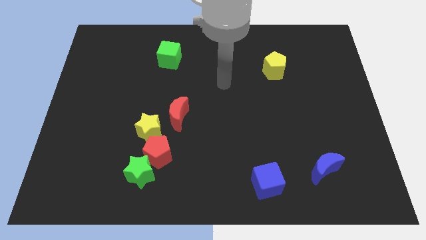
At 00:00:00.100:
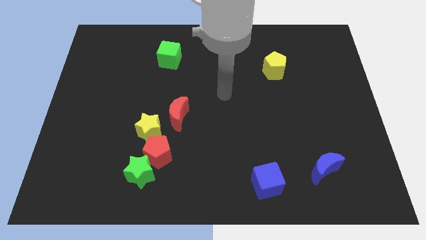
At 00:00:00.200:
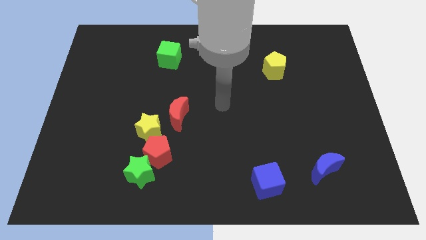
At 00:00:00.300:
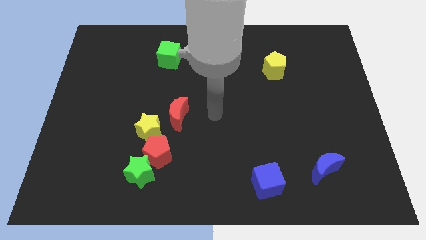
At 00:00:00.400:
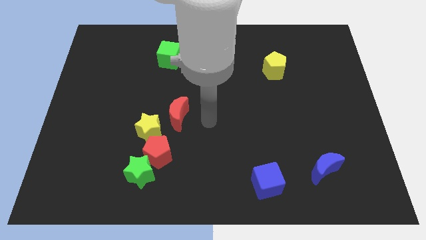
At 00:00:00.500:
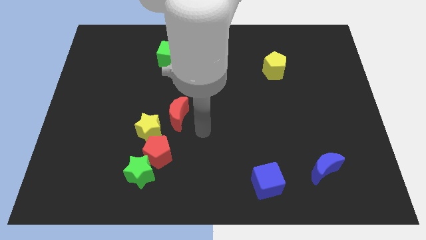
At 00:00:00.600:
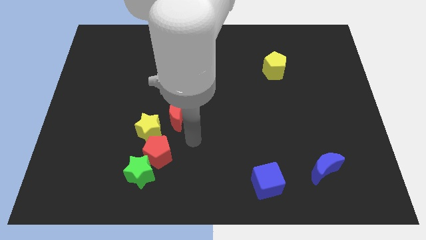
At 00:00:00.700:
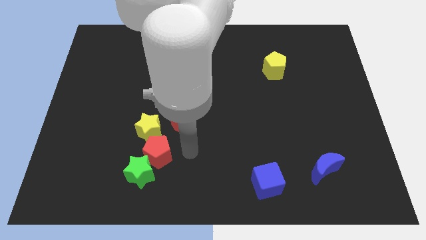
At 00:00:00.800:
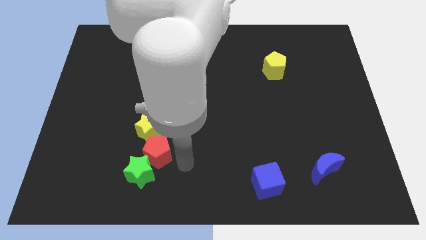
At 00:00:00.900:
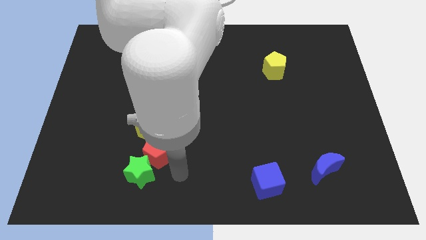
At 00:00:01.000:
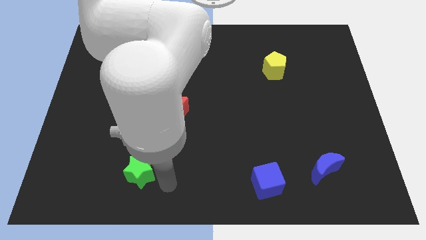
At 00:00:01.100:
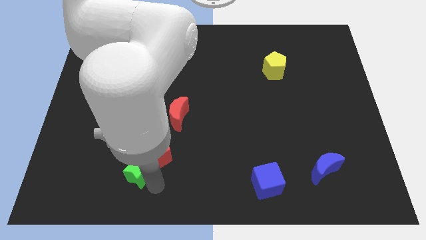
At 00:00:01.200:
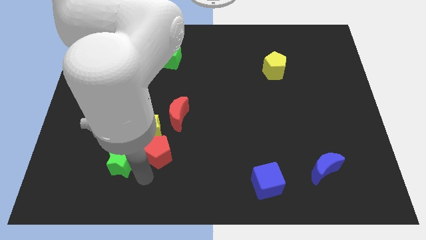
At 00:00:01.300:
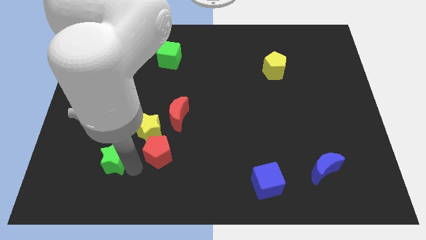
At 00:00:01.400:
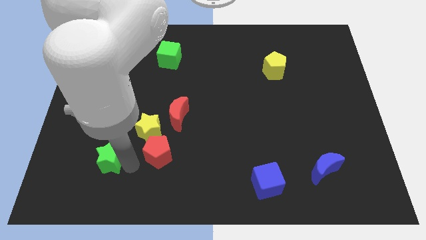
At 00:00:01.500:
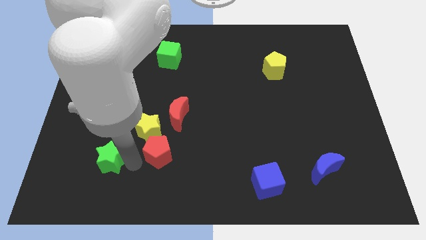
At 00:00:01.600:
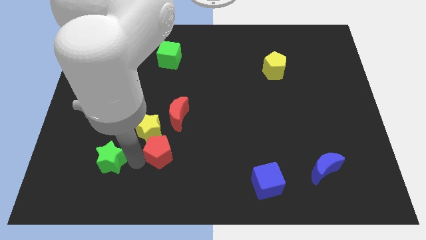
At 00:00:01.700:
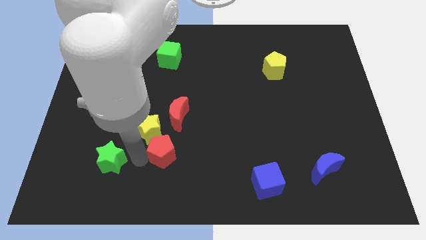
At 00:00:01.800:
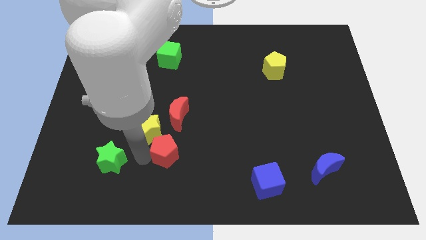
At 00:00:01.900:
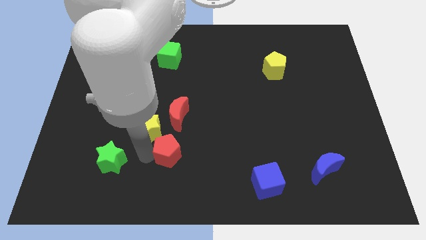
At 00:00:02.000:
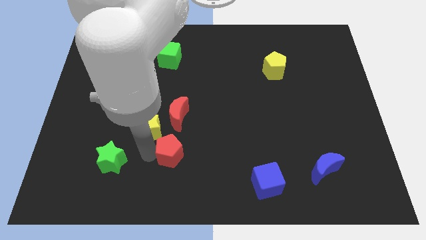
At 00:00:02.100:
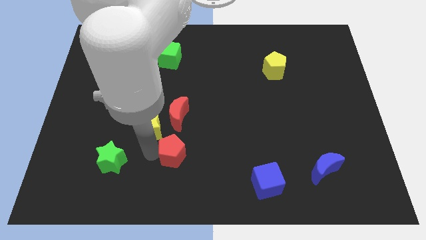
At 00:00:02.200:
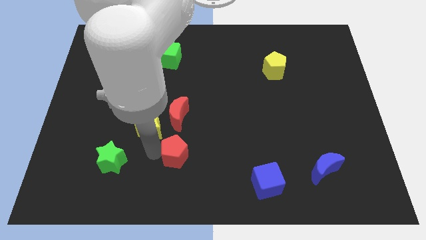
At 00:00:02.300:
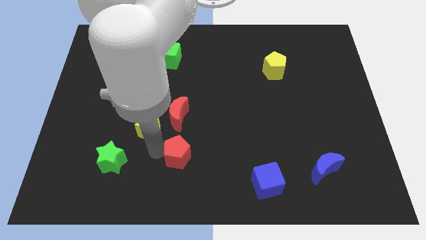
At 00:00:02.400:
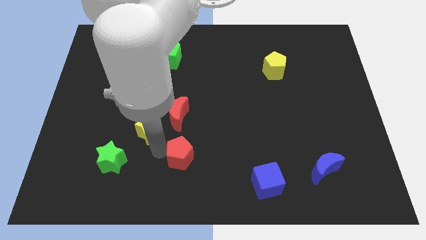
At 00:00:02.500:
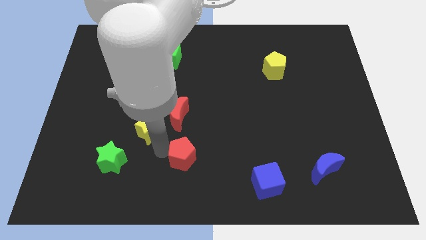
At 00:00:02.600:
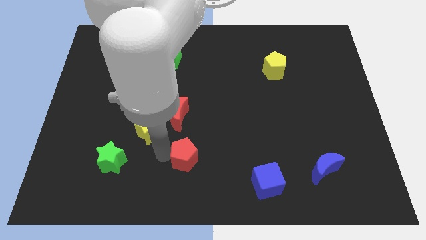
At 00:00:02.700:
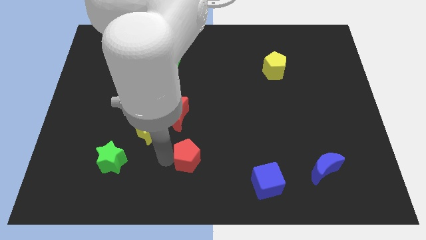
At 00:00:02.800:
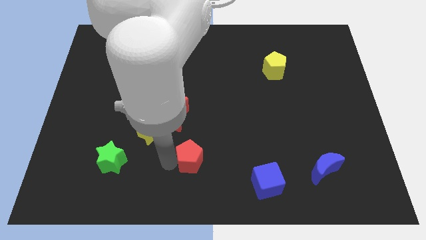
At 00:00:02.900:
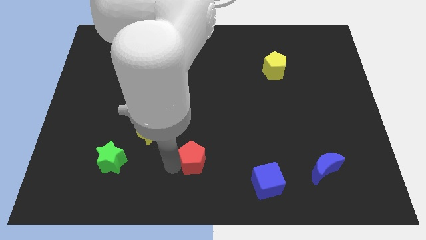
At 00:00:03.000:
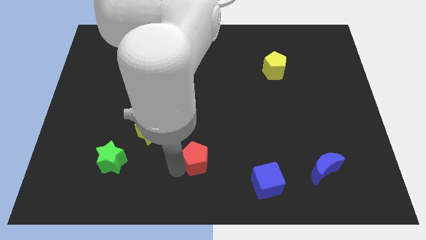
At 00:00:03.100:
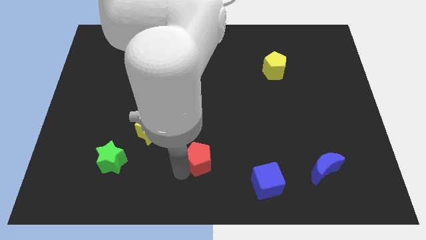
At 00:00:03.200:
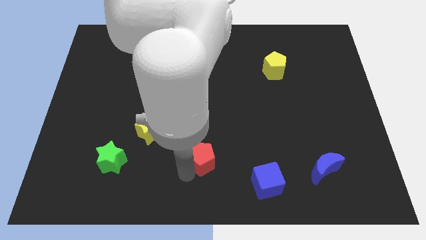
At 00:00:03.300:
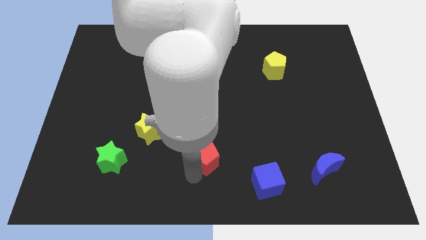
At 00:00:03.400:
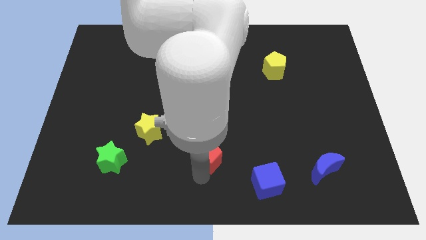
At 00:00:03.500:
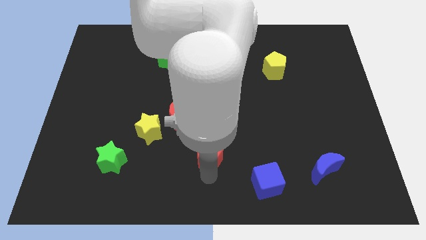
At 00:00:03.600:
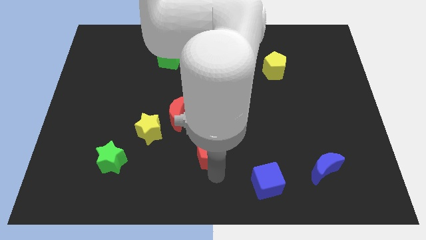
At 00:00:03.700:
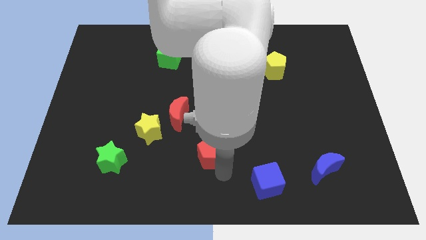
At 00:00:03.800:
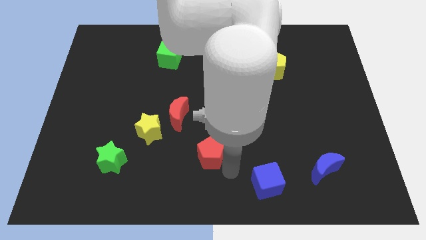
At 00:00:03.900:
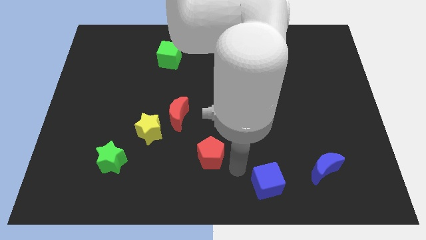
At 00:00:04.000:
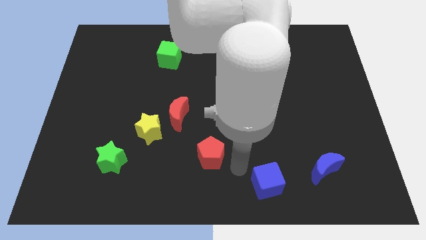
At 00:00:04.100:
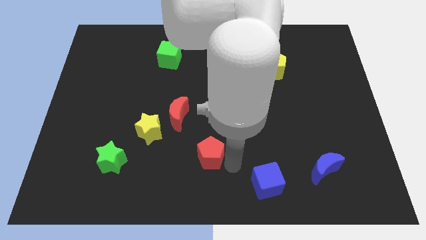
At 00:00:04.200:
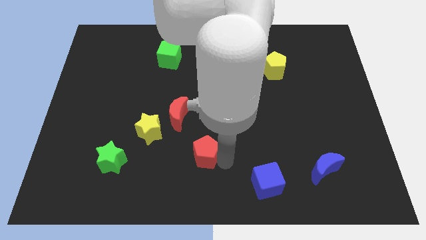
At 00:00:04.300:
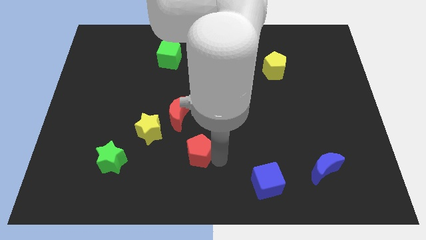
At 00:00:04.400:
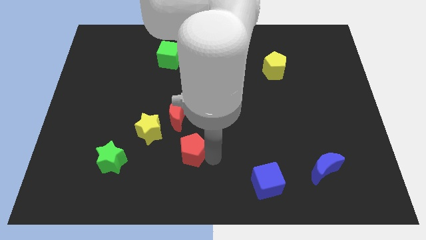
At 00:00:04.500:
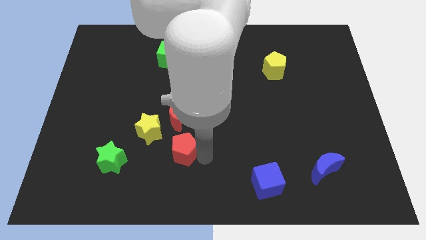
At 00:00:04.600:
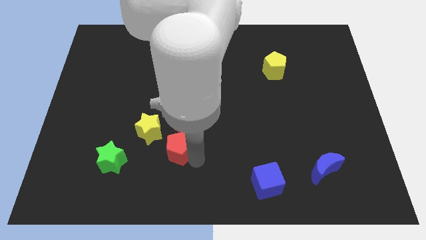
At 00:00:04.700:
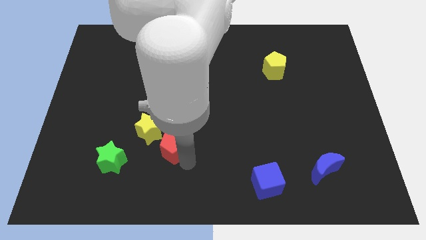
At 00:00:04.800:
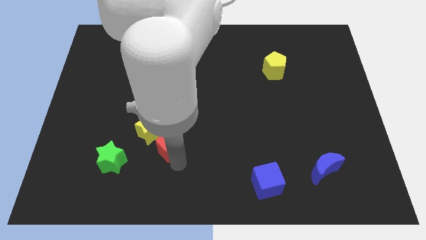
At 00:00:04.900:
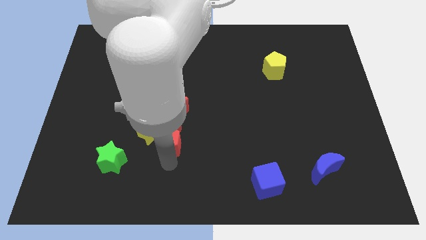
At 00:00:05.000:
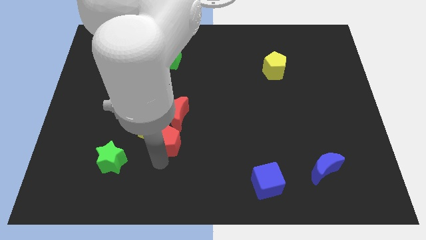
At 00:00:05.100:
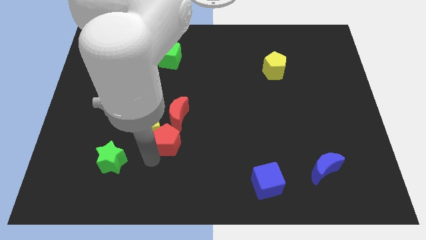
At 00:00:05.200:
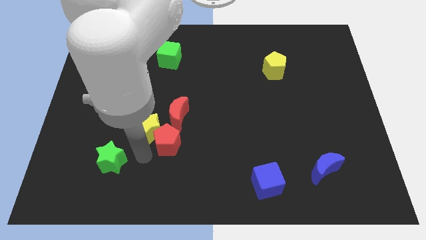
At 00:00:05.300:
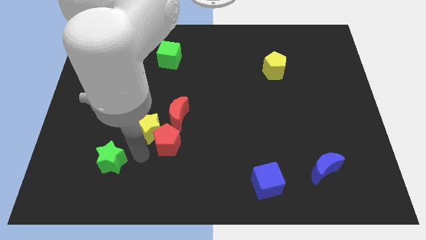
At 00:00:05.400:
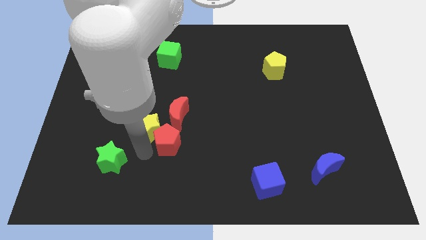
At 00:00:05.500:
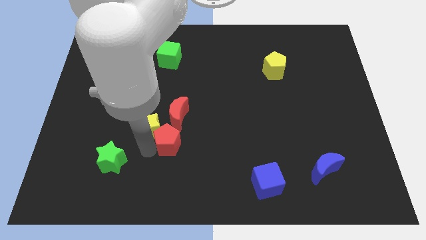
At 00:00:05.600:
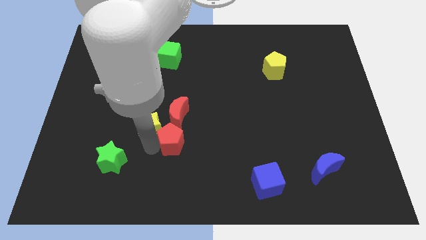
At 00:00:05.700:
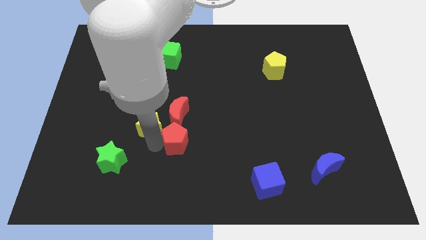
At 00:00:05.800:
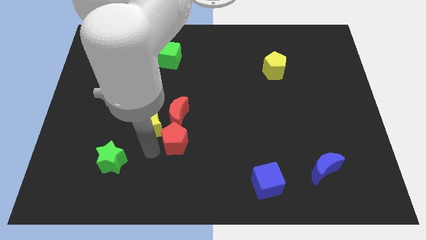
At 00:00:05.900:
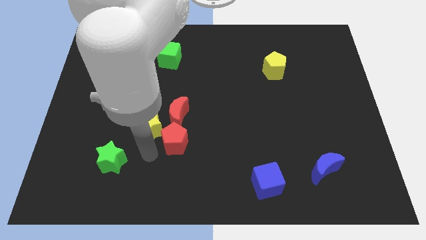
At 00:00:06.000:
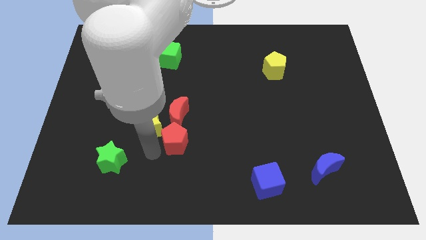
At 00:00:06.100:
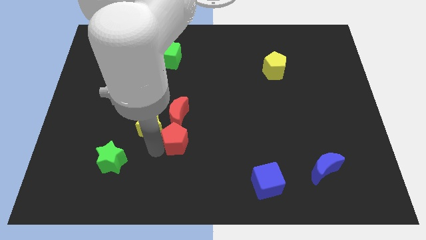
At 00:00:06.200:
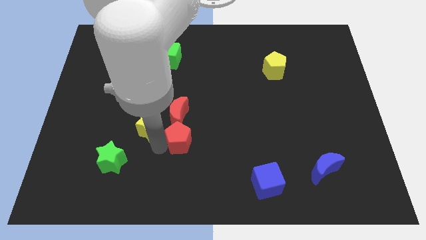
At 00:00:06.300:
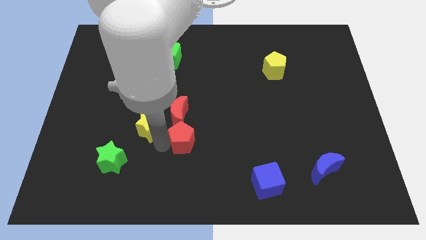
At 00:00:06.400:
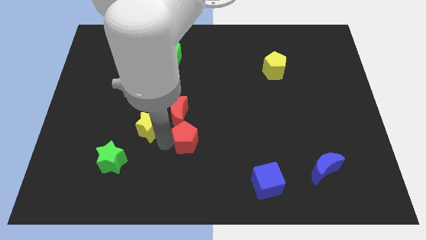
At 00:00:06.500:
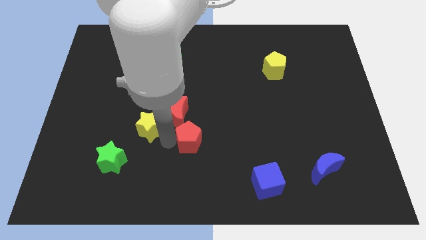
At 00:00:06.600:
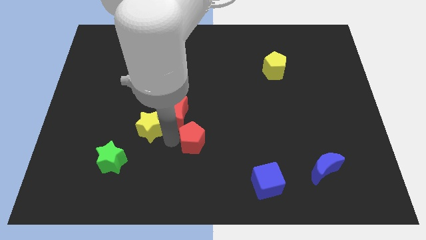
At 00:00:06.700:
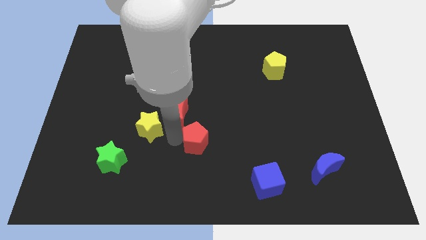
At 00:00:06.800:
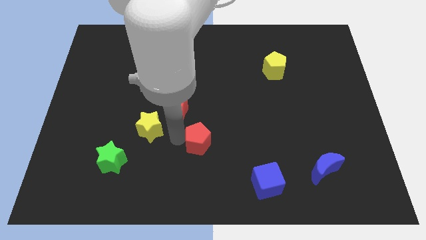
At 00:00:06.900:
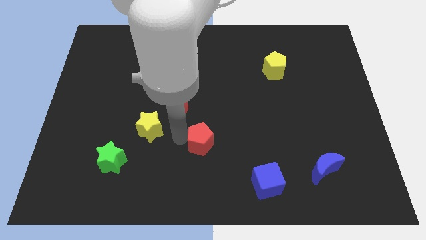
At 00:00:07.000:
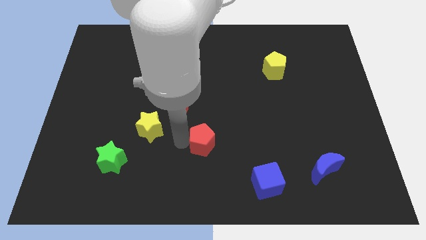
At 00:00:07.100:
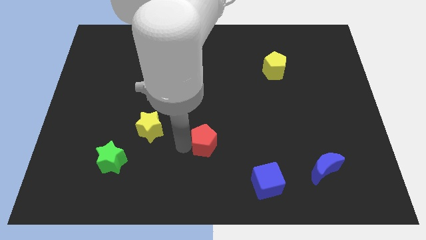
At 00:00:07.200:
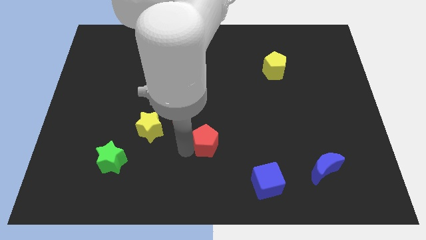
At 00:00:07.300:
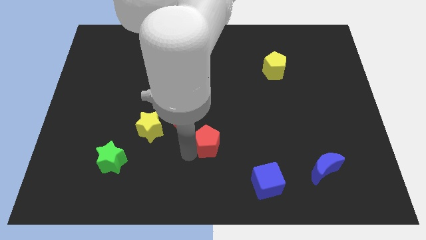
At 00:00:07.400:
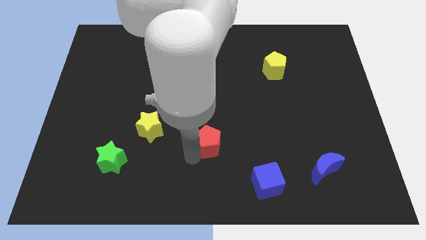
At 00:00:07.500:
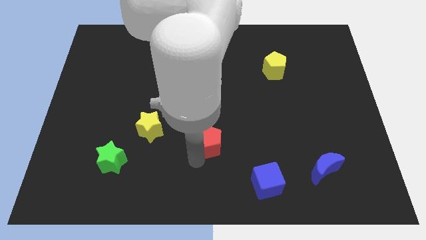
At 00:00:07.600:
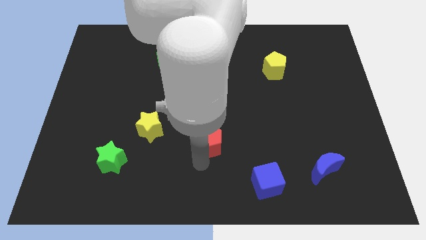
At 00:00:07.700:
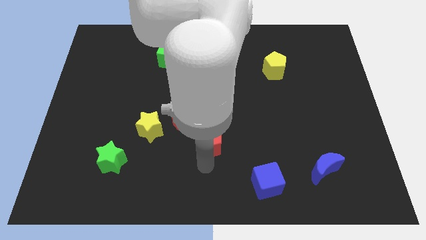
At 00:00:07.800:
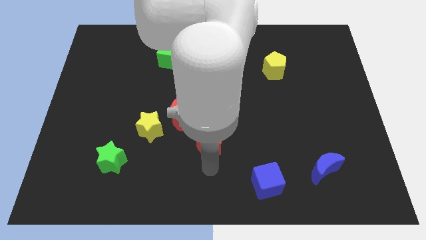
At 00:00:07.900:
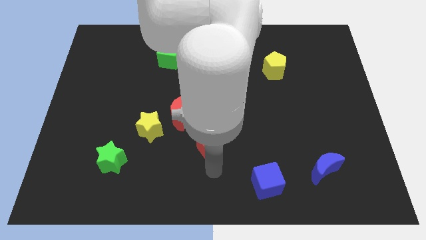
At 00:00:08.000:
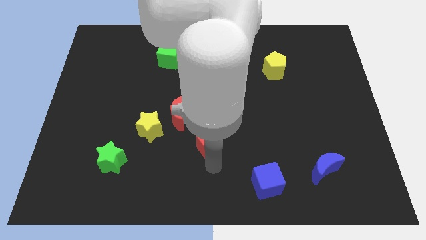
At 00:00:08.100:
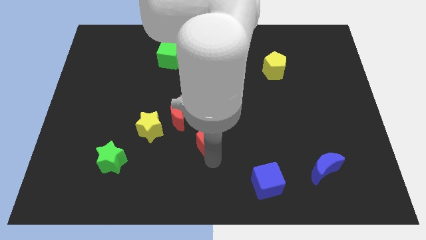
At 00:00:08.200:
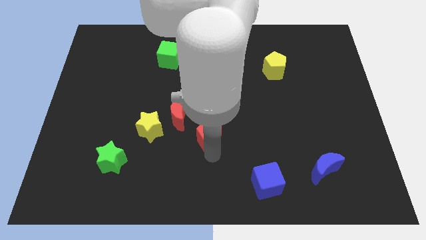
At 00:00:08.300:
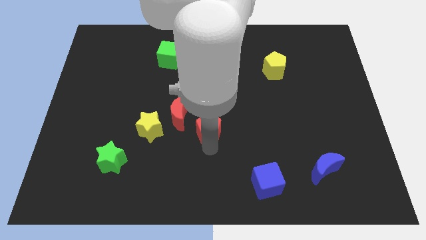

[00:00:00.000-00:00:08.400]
push the red pentagon just right of the red moon
